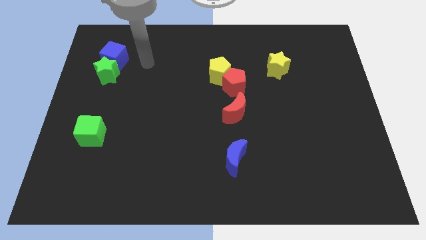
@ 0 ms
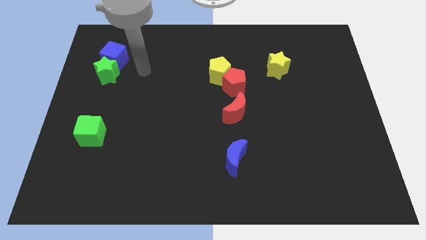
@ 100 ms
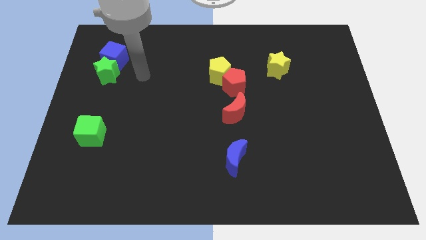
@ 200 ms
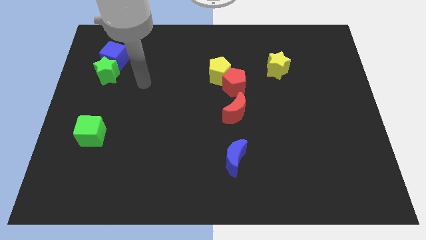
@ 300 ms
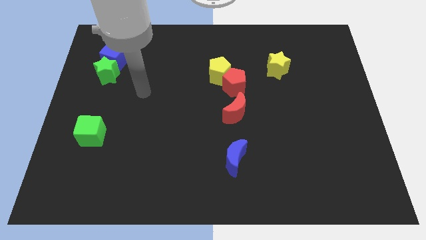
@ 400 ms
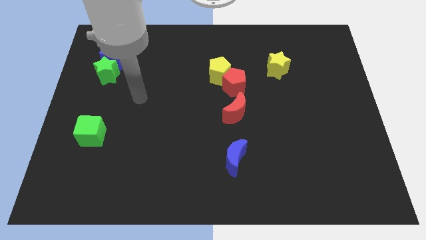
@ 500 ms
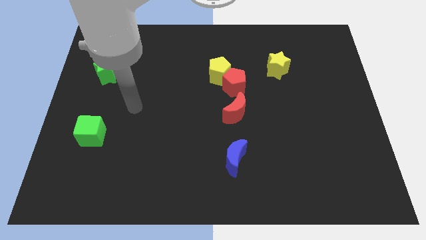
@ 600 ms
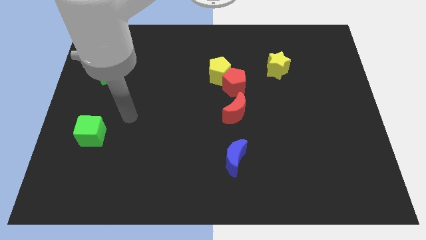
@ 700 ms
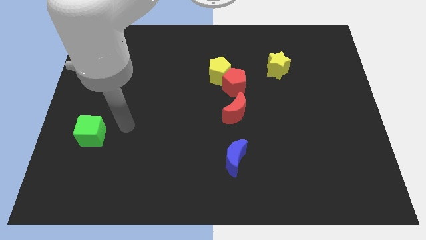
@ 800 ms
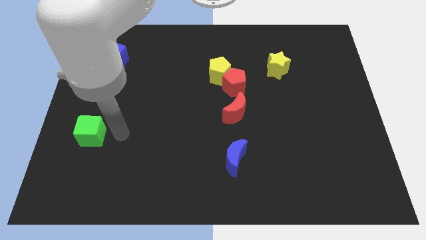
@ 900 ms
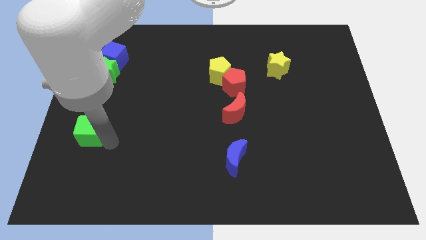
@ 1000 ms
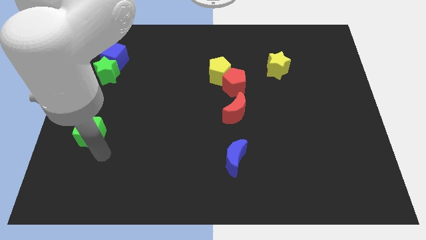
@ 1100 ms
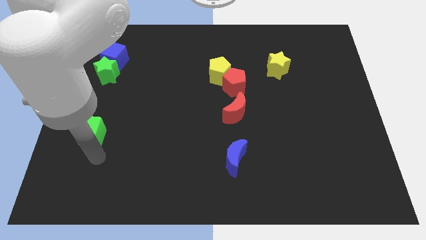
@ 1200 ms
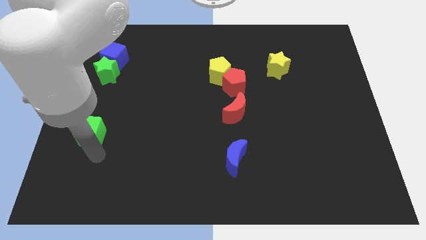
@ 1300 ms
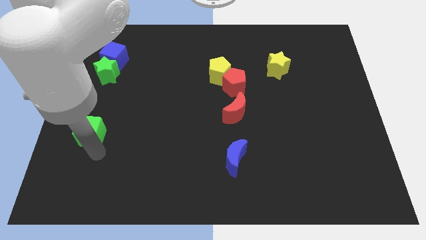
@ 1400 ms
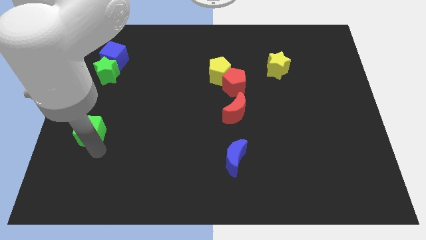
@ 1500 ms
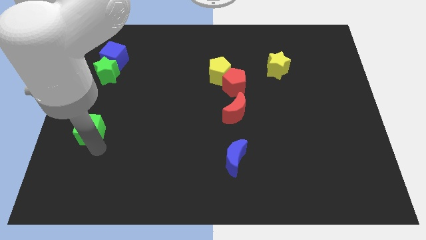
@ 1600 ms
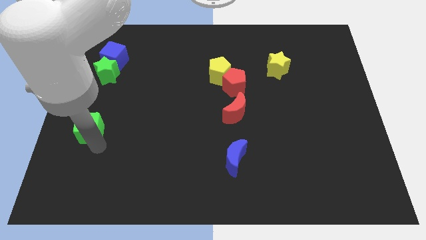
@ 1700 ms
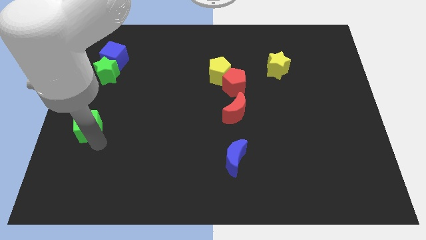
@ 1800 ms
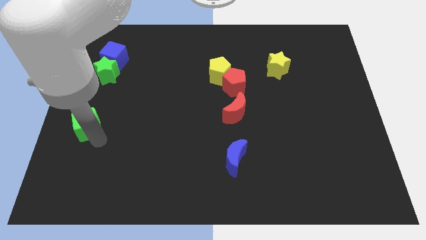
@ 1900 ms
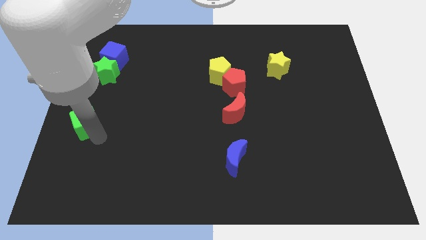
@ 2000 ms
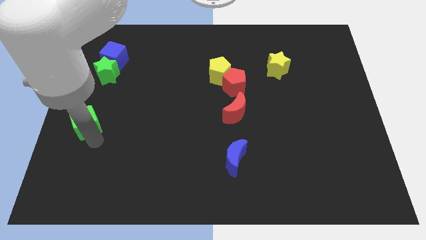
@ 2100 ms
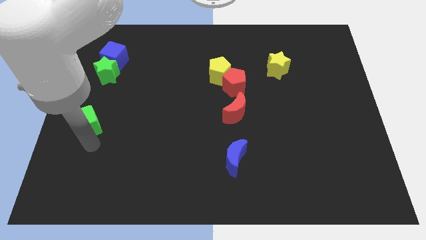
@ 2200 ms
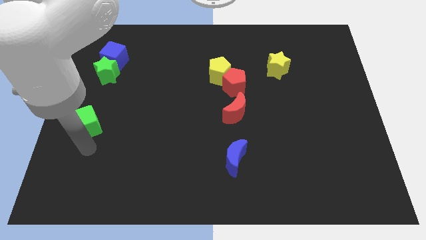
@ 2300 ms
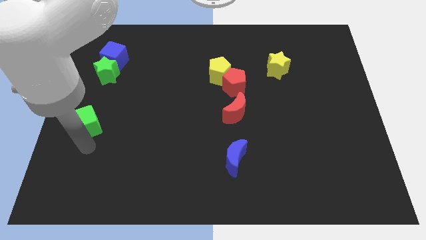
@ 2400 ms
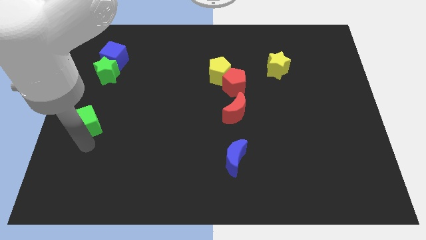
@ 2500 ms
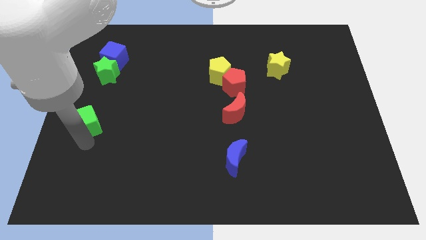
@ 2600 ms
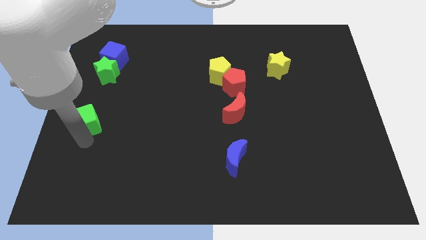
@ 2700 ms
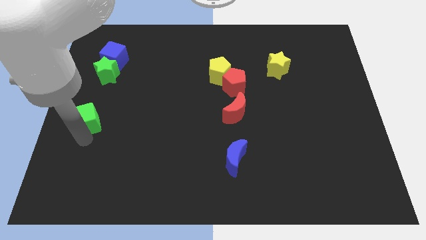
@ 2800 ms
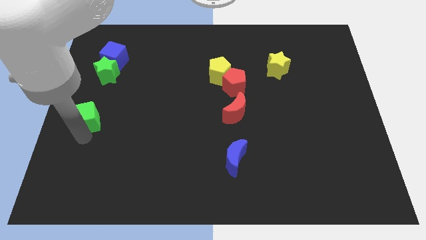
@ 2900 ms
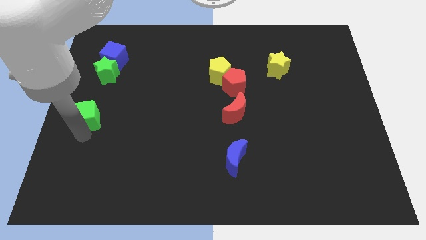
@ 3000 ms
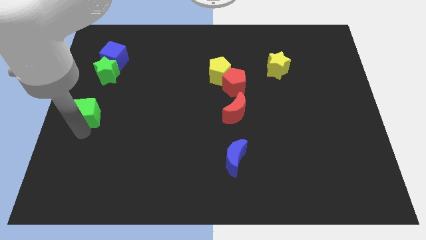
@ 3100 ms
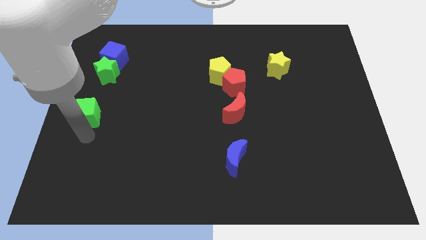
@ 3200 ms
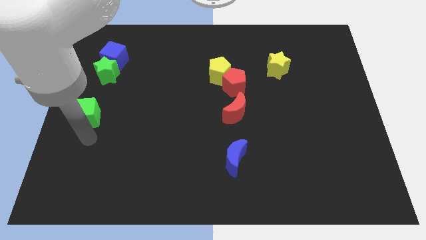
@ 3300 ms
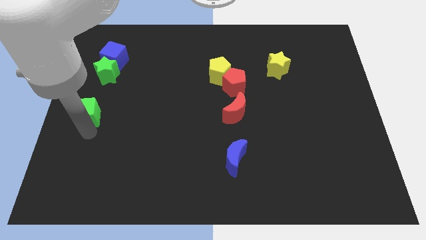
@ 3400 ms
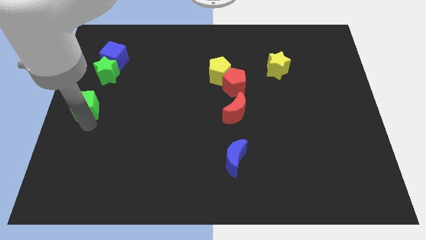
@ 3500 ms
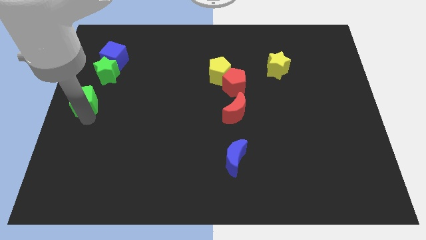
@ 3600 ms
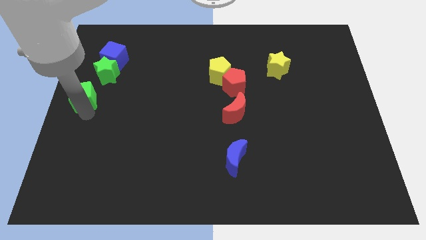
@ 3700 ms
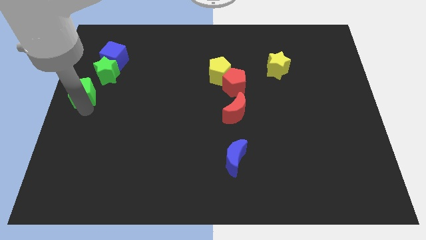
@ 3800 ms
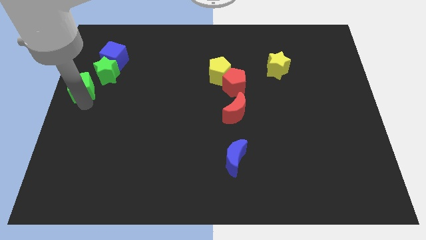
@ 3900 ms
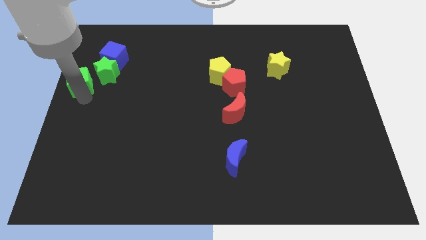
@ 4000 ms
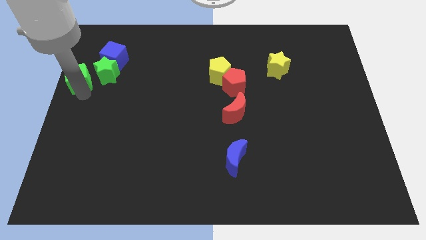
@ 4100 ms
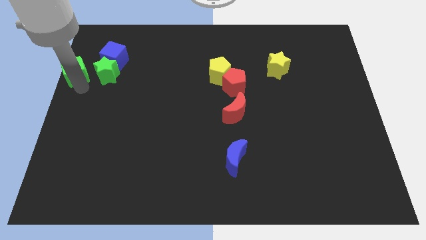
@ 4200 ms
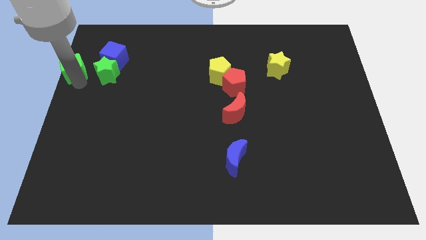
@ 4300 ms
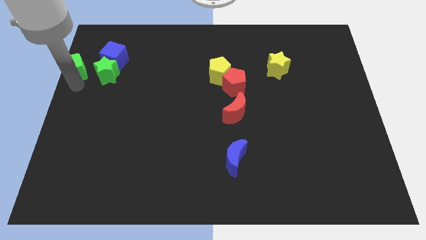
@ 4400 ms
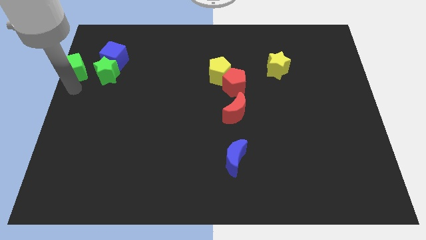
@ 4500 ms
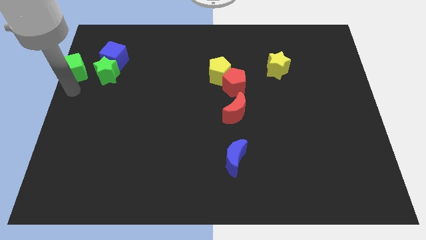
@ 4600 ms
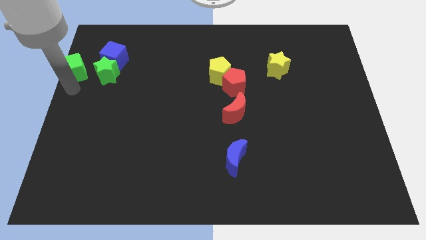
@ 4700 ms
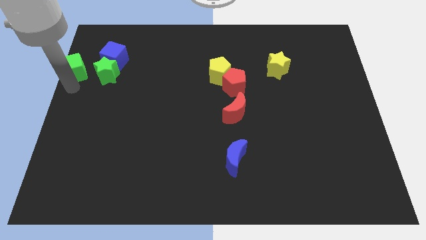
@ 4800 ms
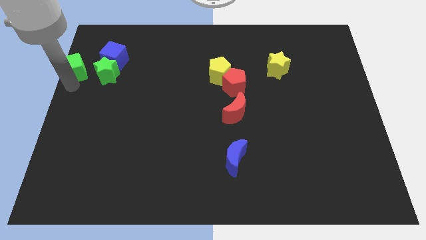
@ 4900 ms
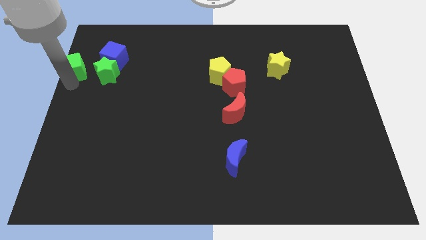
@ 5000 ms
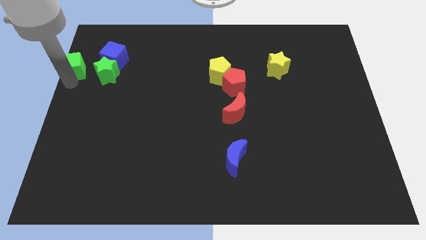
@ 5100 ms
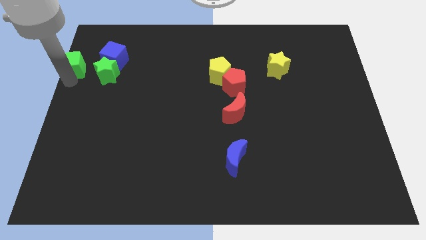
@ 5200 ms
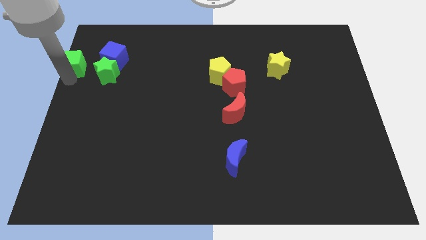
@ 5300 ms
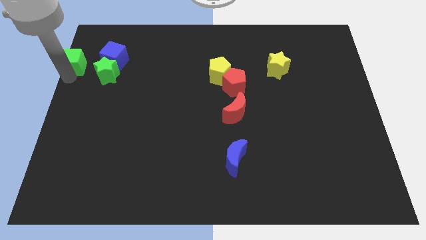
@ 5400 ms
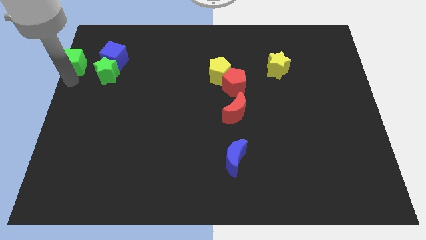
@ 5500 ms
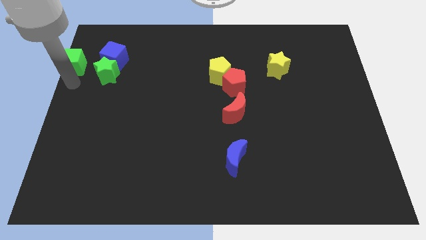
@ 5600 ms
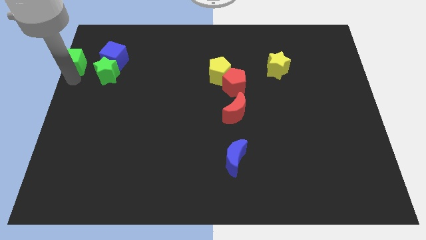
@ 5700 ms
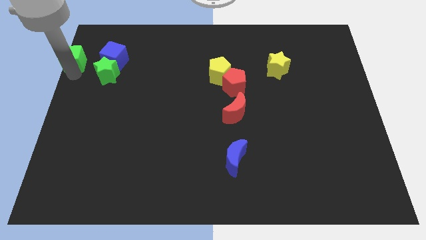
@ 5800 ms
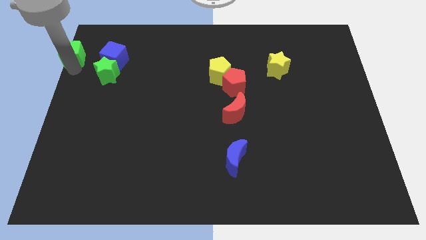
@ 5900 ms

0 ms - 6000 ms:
push the green cube to the upper left corner
